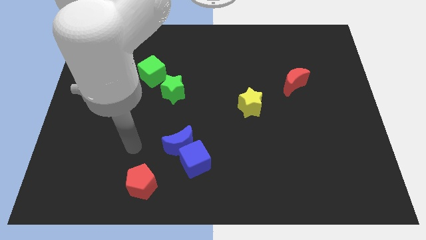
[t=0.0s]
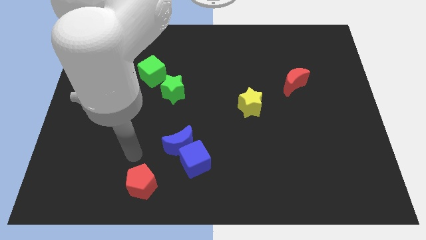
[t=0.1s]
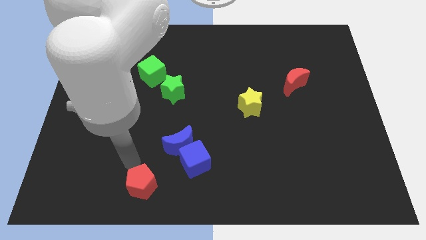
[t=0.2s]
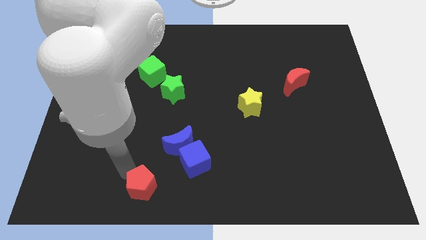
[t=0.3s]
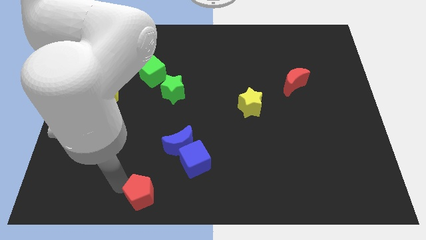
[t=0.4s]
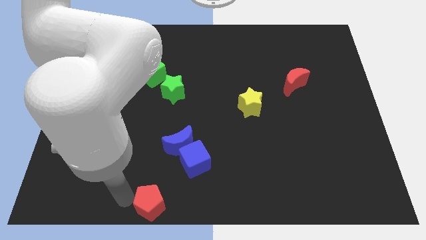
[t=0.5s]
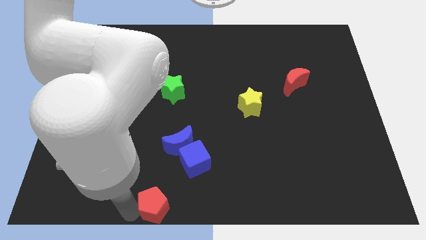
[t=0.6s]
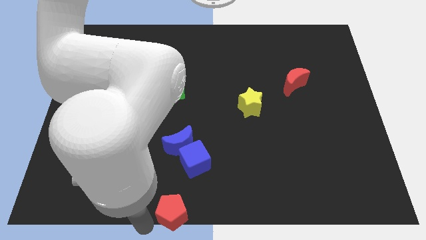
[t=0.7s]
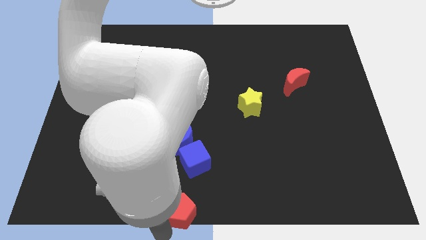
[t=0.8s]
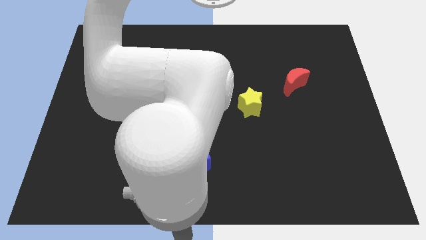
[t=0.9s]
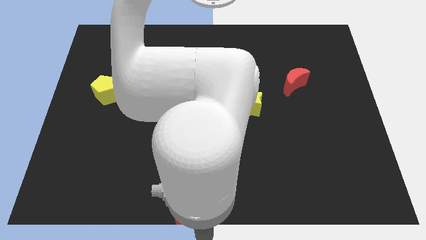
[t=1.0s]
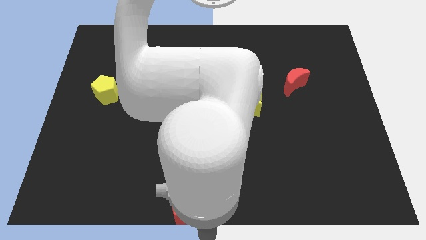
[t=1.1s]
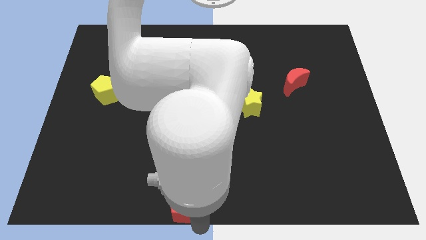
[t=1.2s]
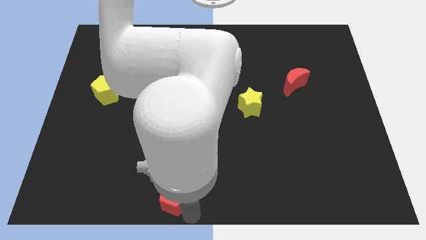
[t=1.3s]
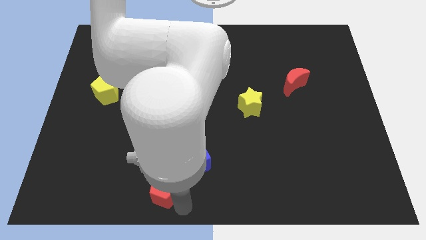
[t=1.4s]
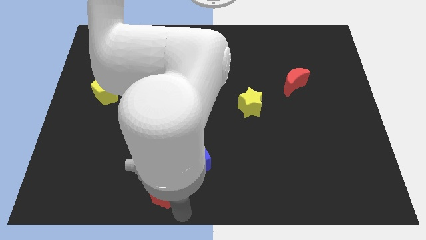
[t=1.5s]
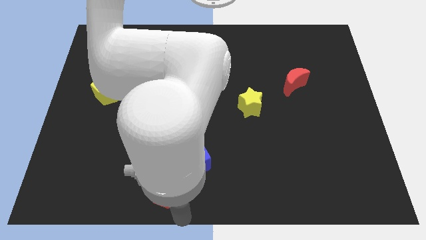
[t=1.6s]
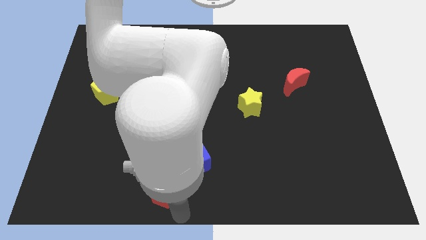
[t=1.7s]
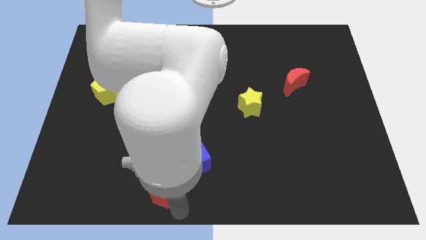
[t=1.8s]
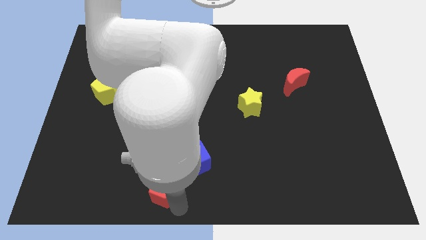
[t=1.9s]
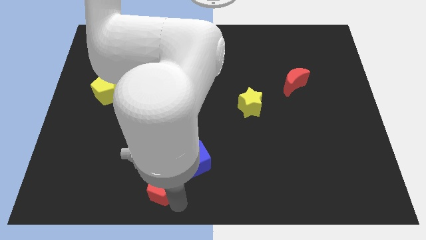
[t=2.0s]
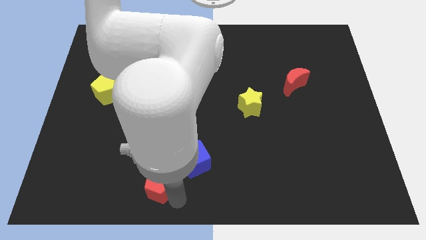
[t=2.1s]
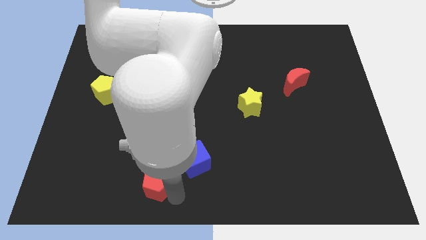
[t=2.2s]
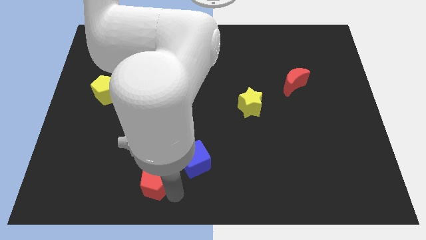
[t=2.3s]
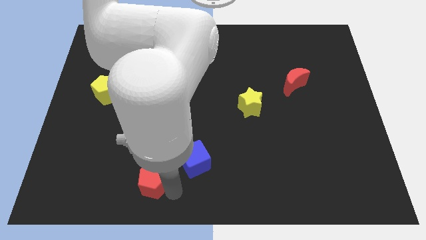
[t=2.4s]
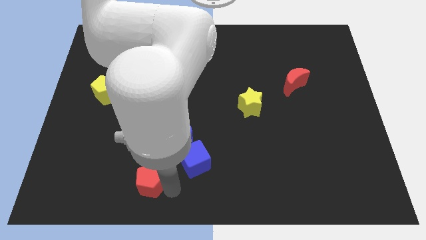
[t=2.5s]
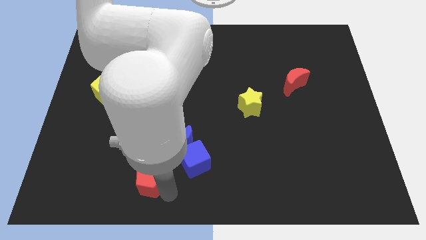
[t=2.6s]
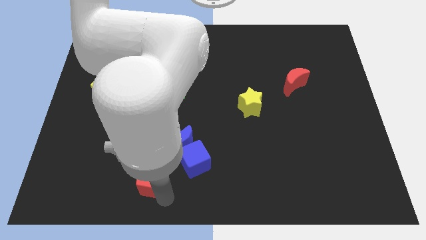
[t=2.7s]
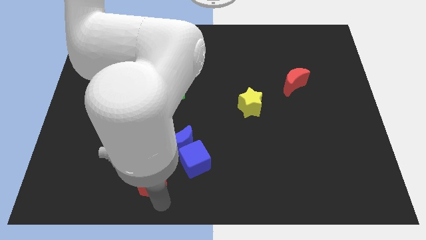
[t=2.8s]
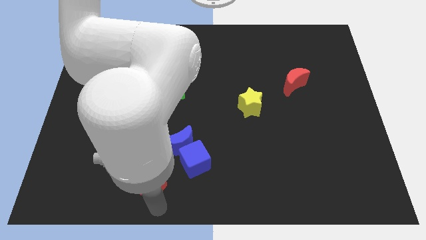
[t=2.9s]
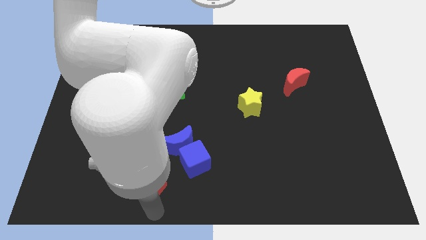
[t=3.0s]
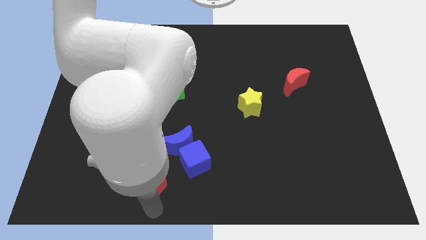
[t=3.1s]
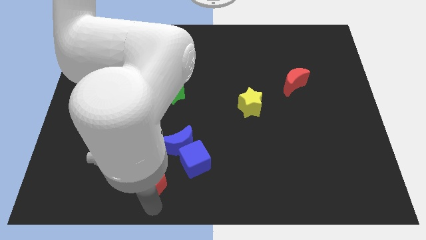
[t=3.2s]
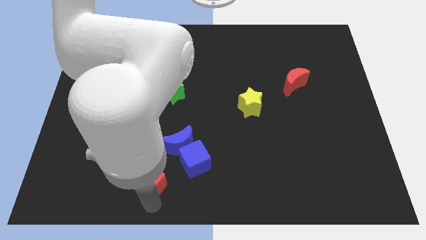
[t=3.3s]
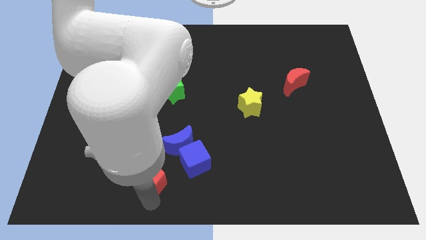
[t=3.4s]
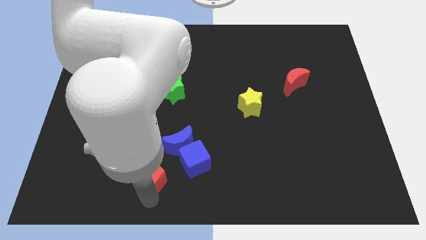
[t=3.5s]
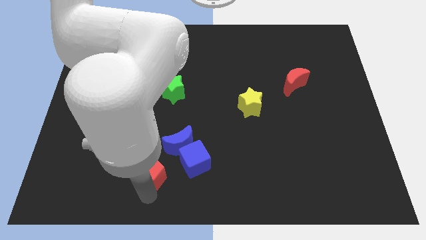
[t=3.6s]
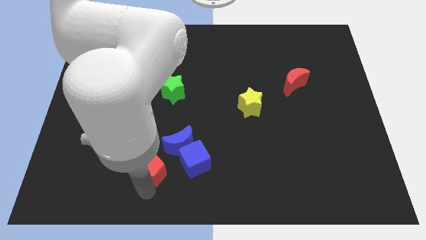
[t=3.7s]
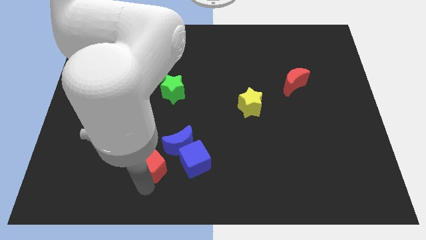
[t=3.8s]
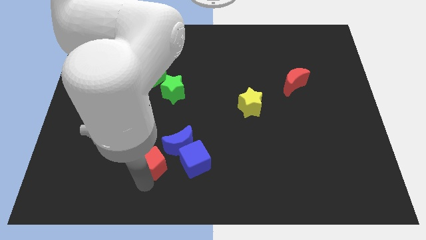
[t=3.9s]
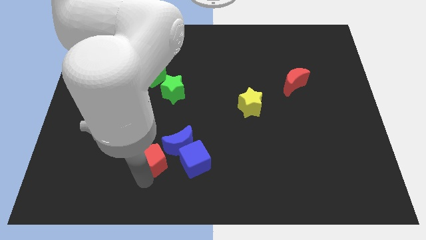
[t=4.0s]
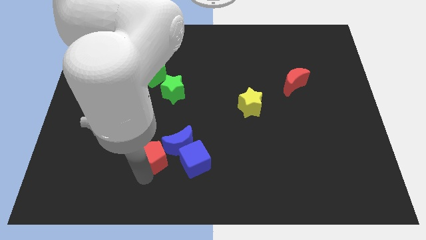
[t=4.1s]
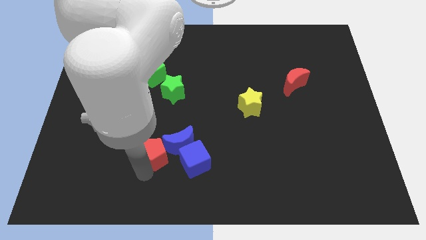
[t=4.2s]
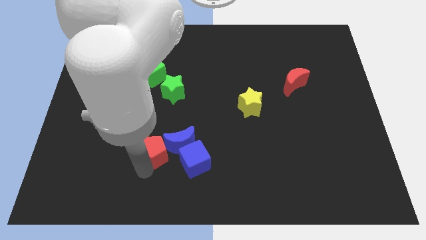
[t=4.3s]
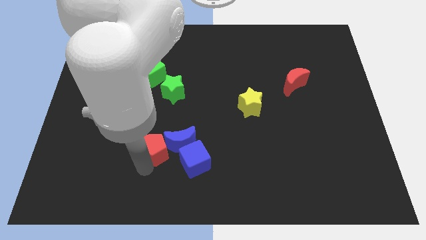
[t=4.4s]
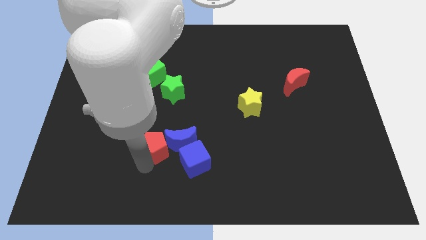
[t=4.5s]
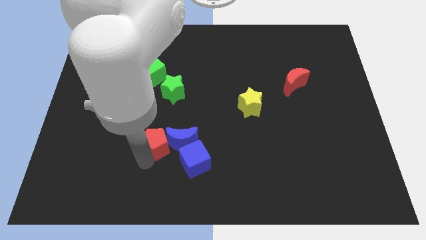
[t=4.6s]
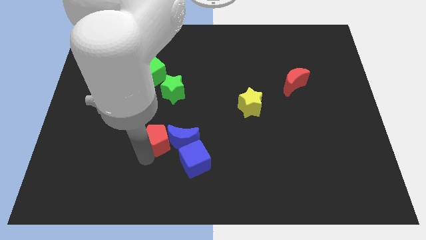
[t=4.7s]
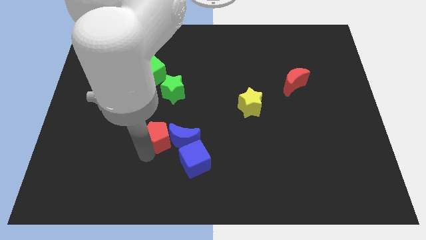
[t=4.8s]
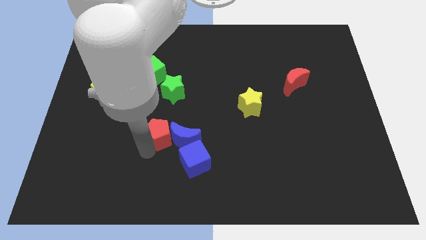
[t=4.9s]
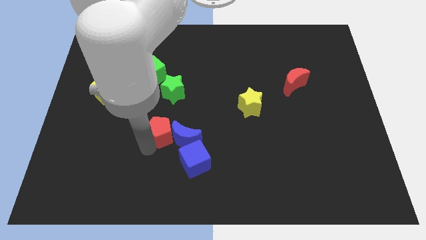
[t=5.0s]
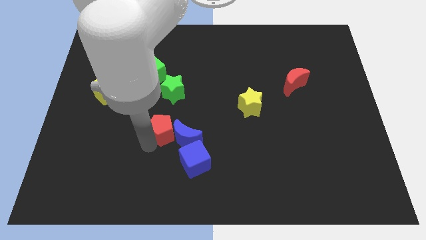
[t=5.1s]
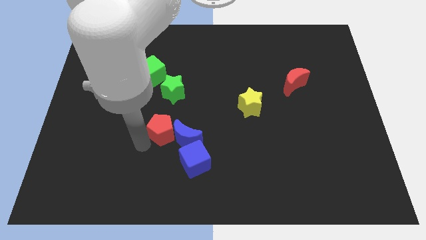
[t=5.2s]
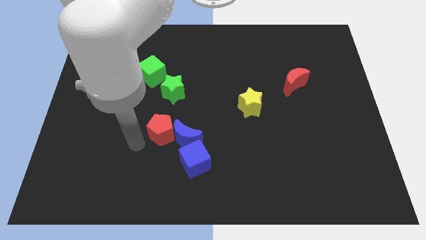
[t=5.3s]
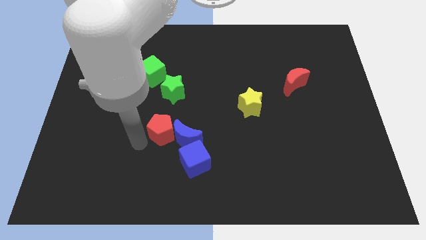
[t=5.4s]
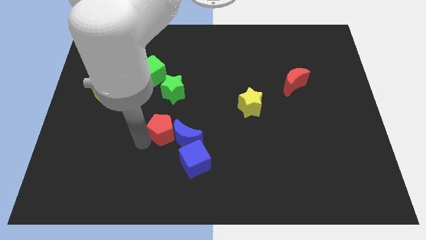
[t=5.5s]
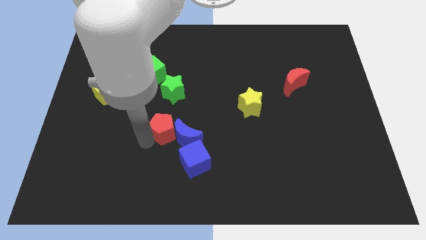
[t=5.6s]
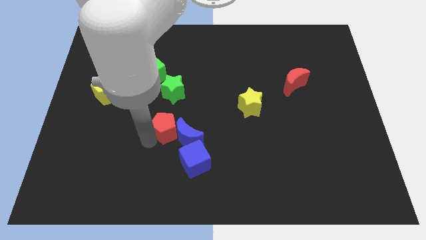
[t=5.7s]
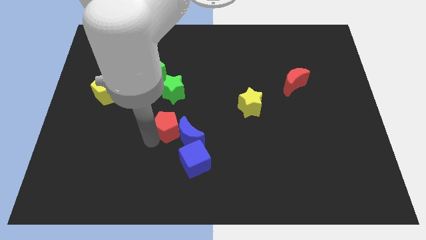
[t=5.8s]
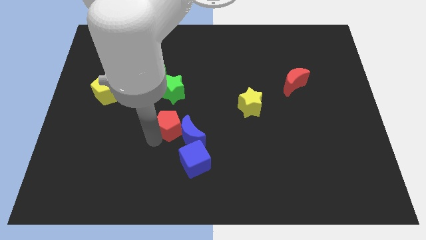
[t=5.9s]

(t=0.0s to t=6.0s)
slide the red pentagon to the middle
